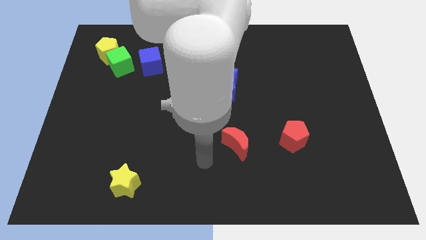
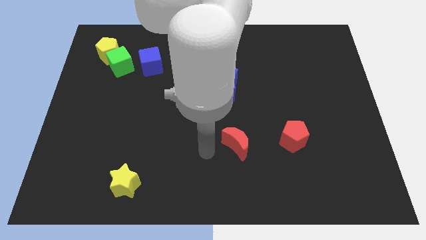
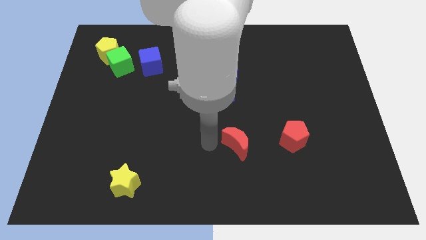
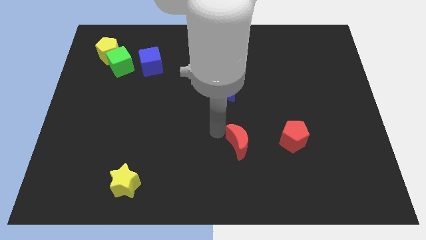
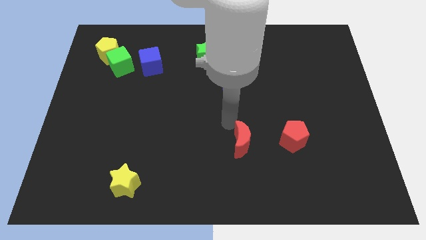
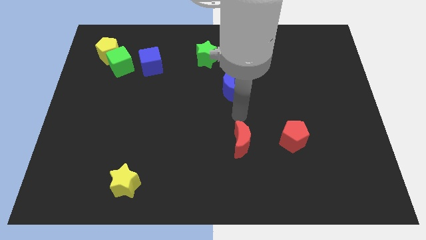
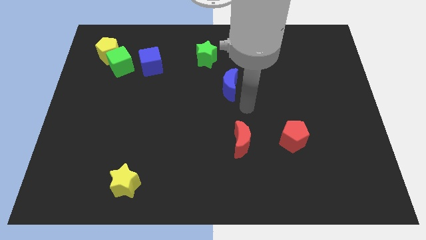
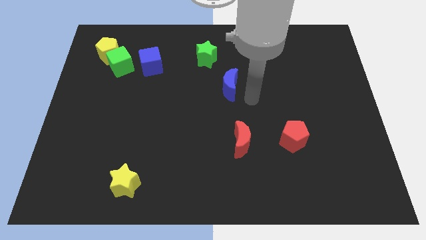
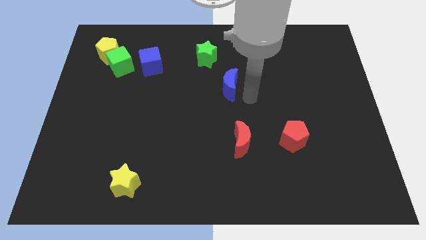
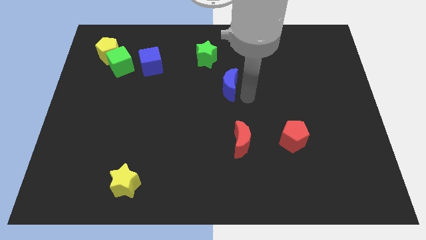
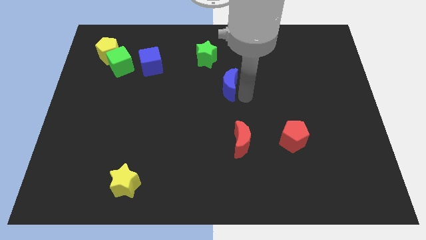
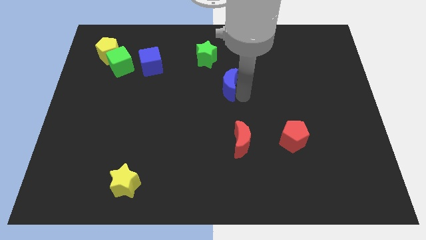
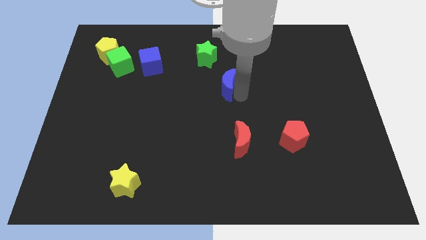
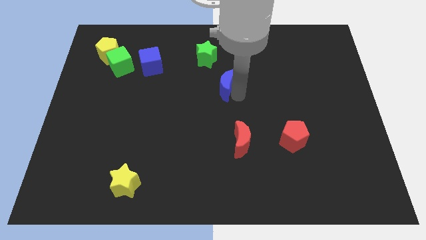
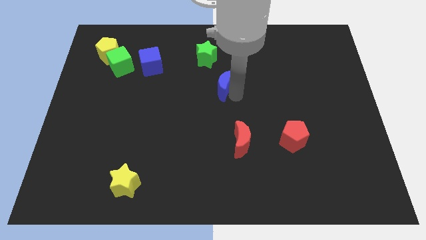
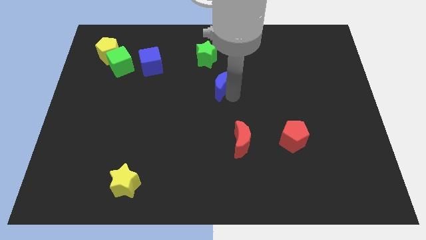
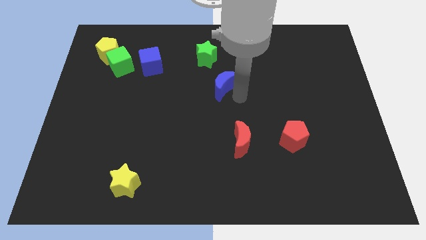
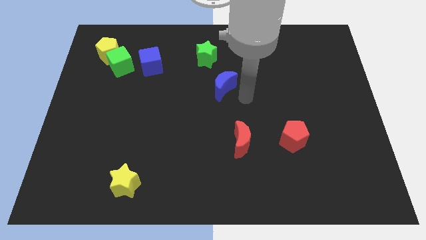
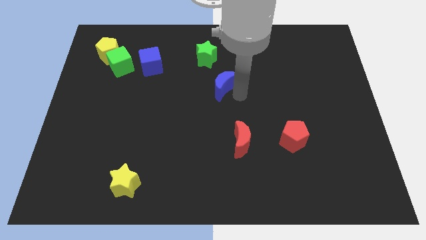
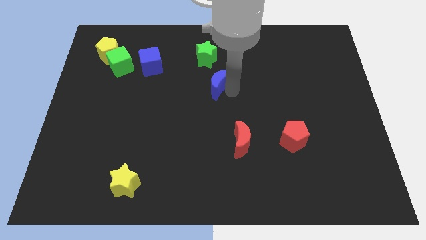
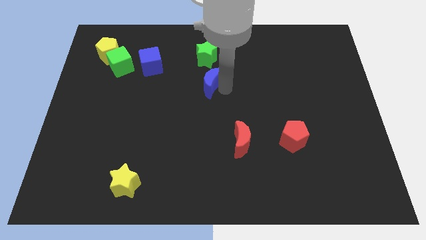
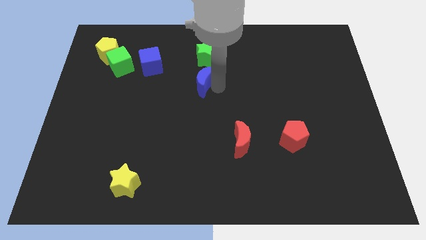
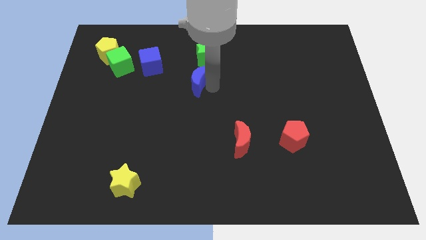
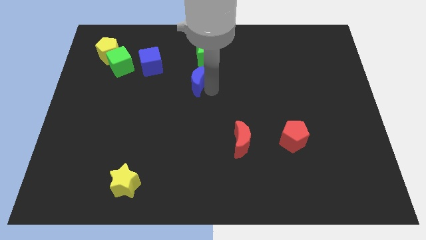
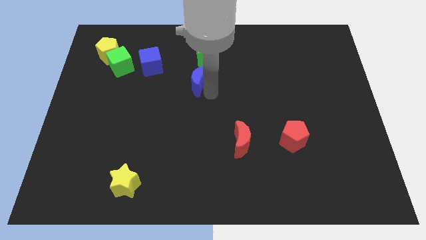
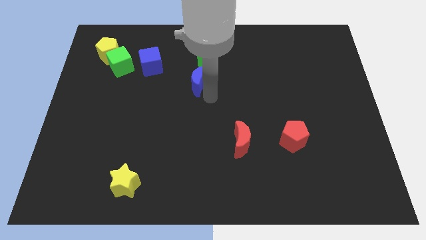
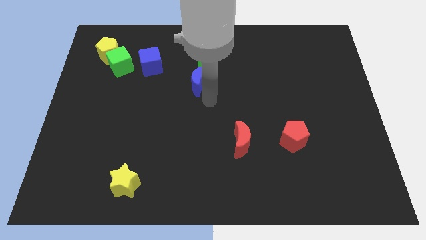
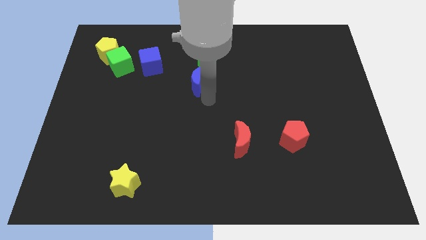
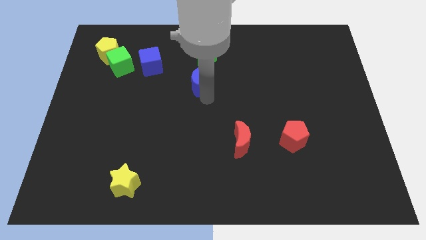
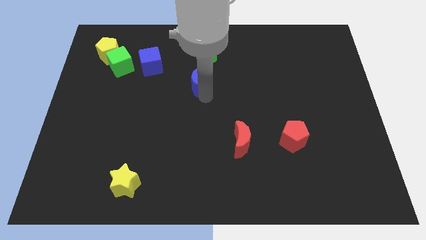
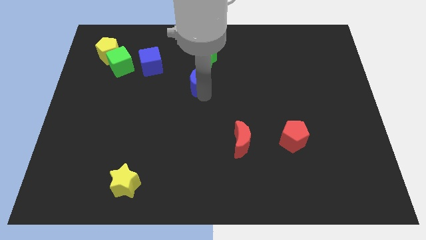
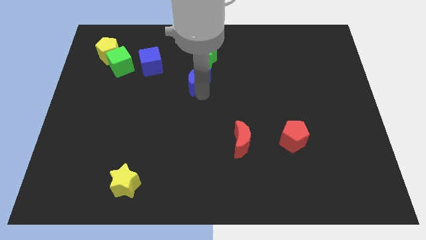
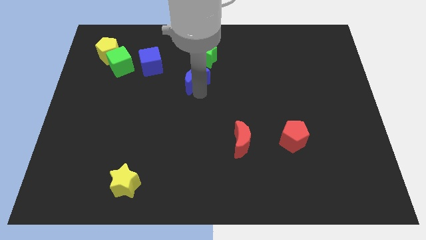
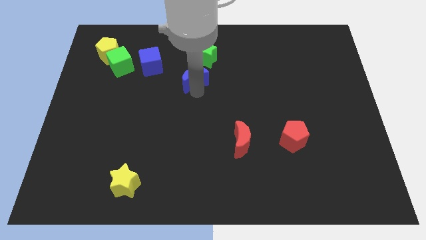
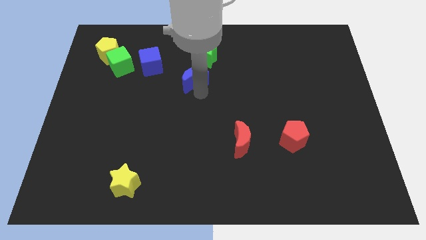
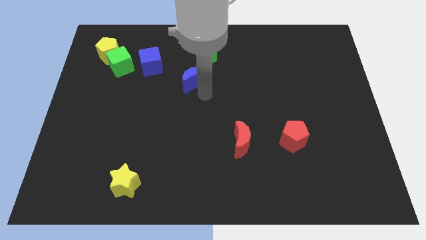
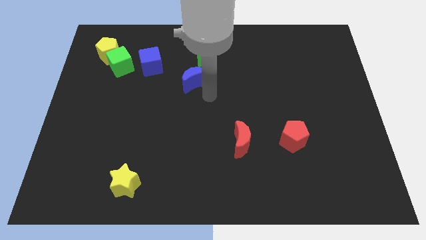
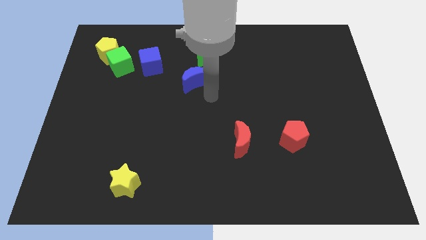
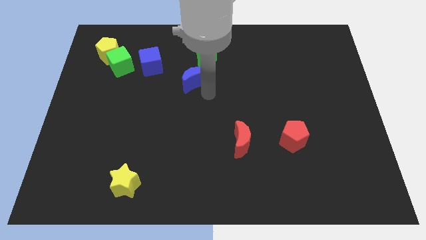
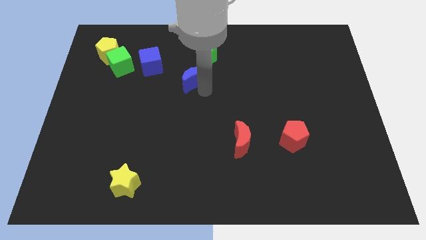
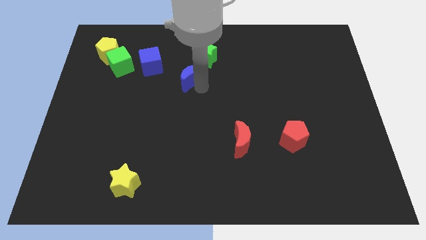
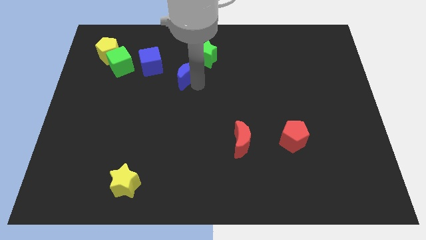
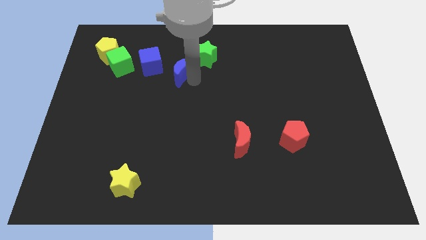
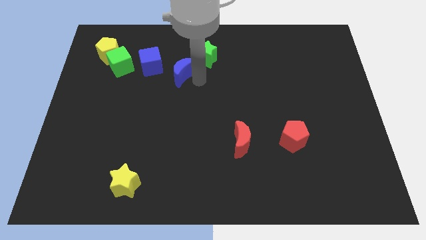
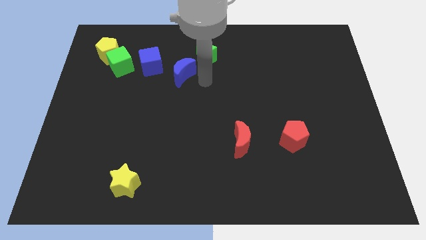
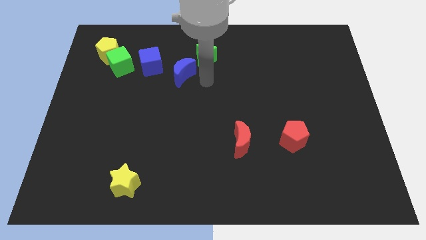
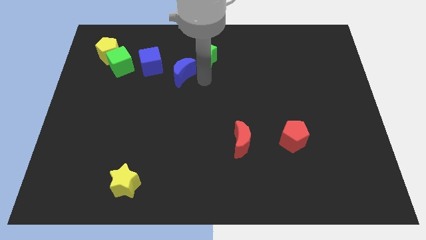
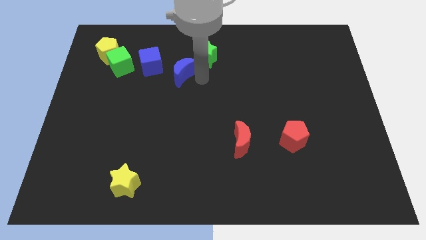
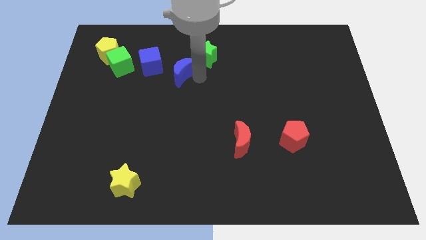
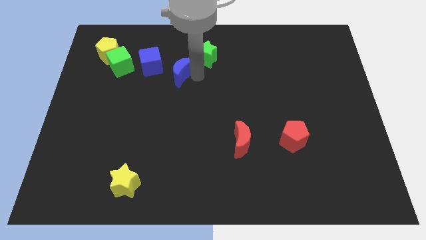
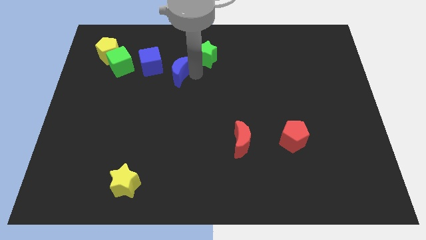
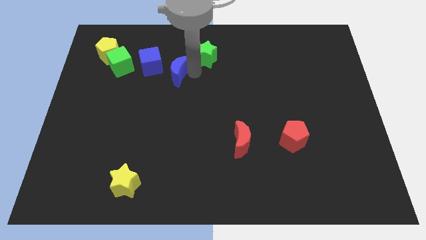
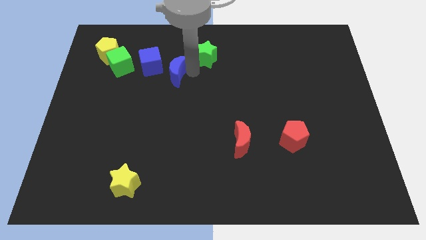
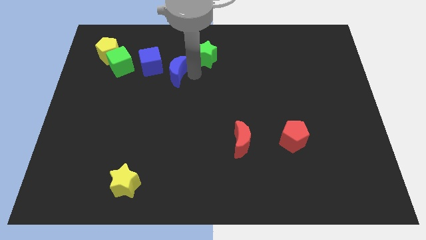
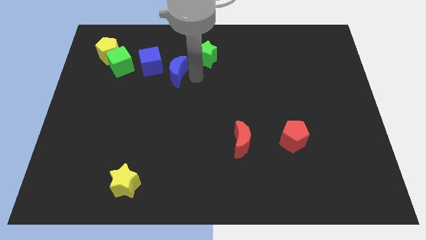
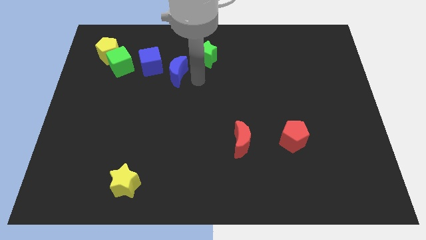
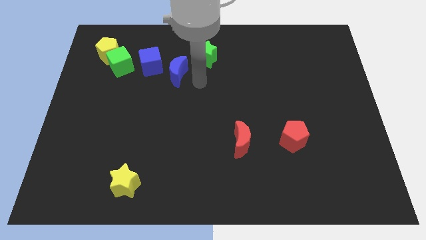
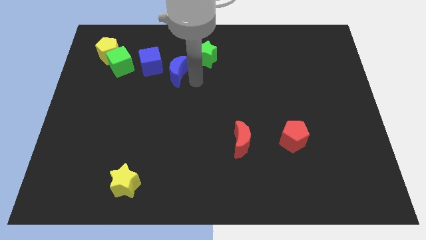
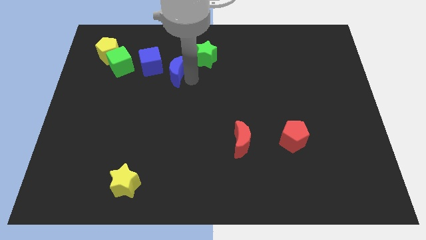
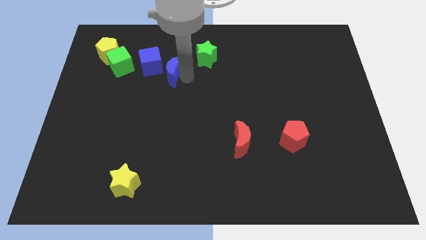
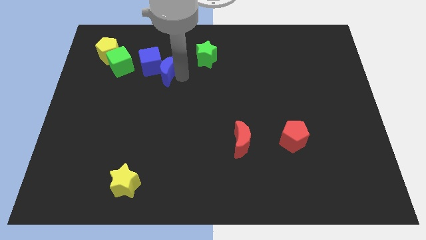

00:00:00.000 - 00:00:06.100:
slide the blue moon close to the blue cube
